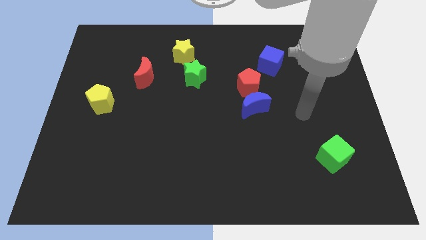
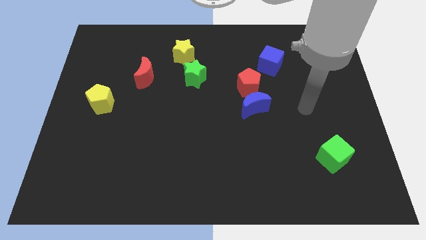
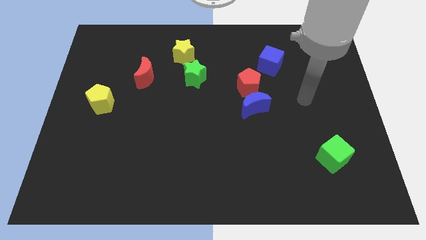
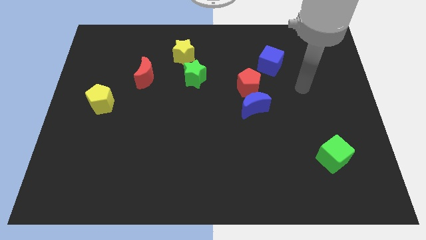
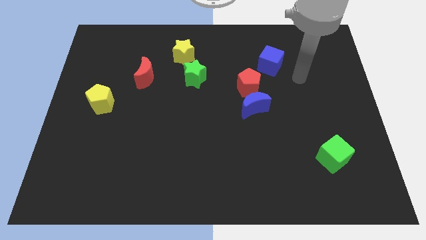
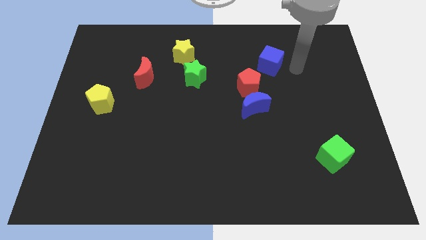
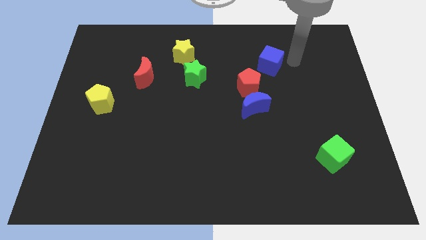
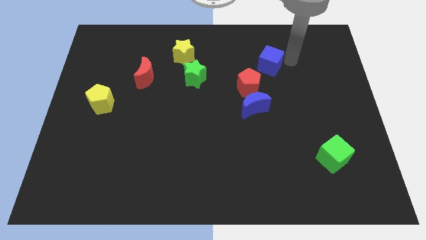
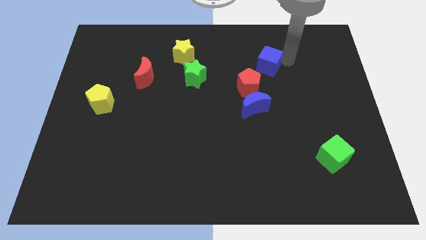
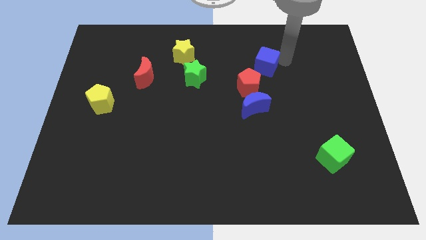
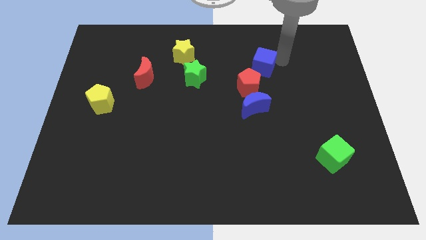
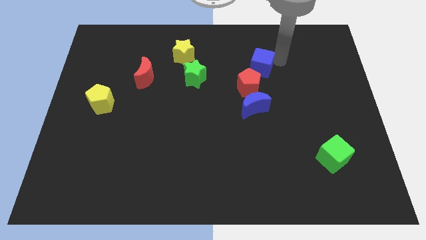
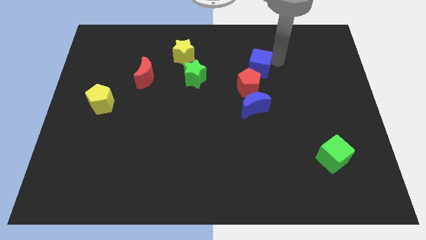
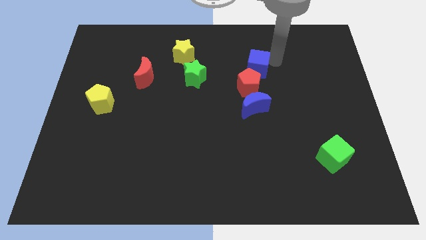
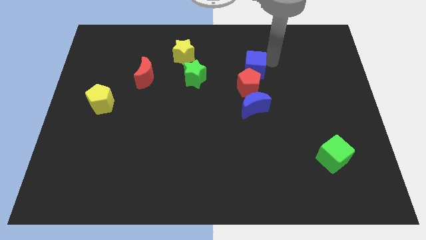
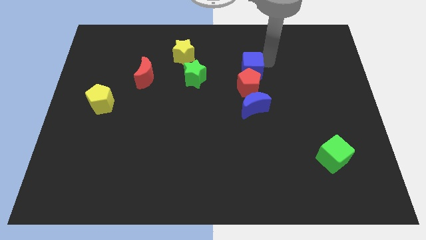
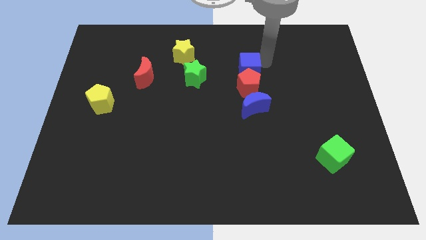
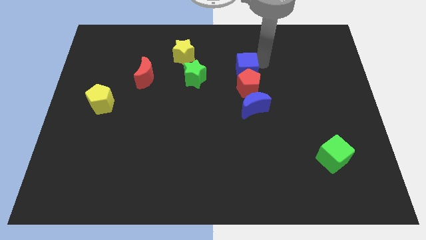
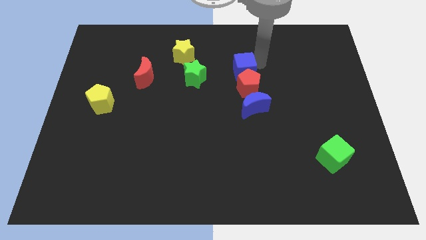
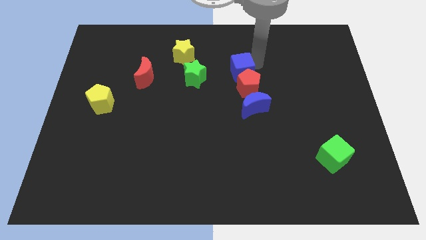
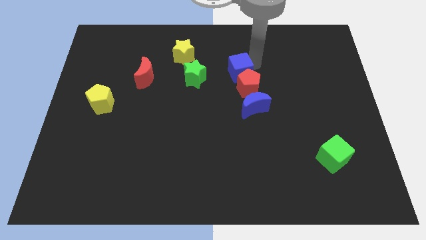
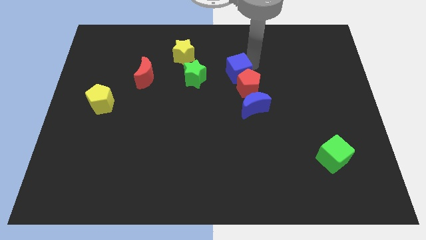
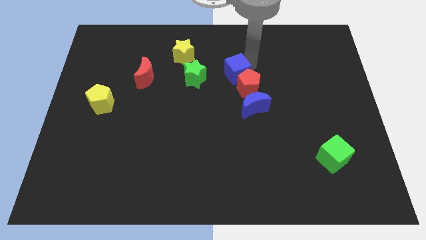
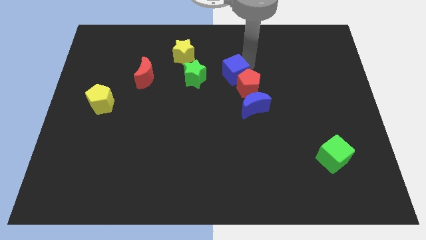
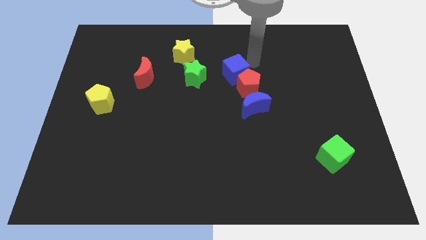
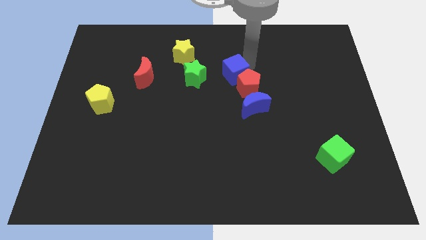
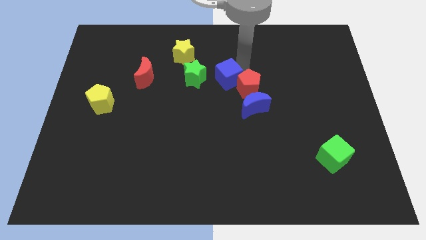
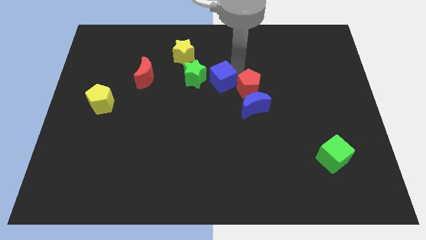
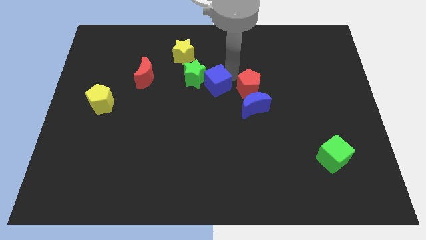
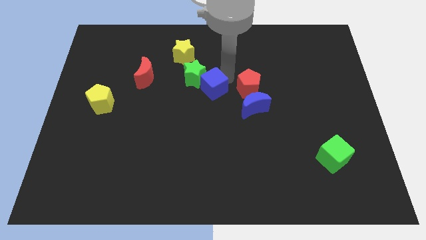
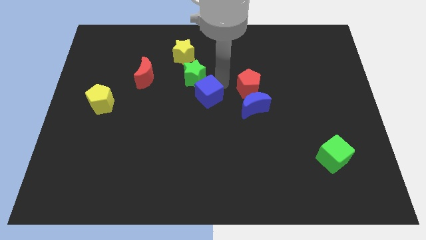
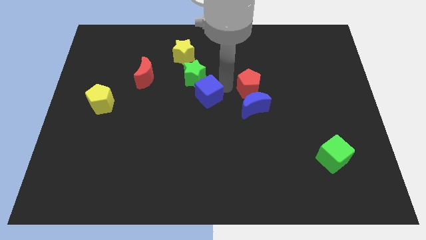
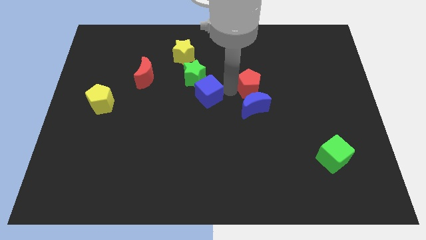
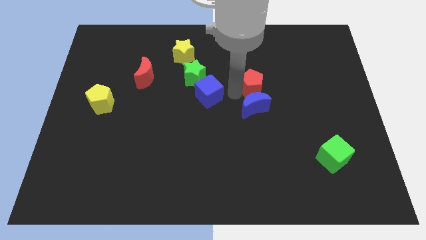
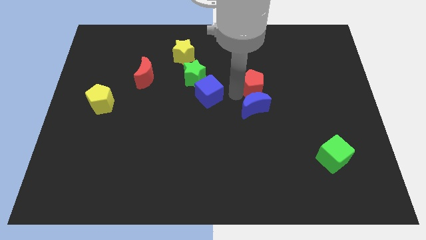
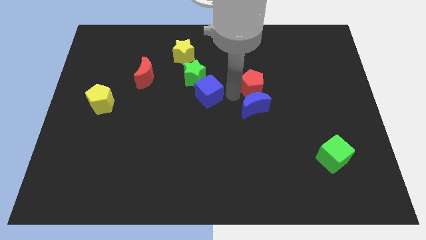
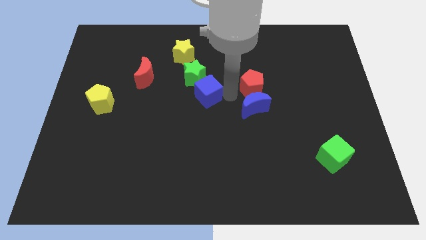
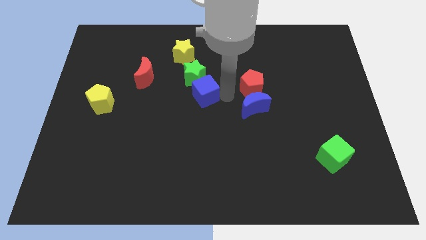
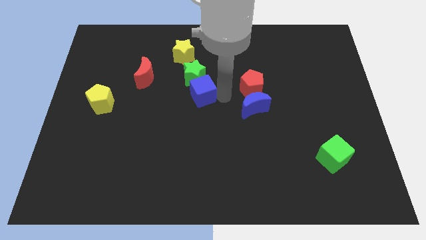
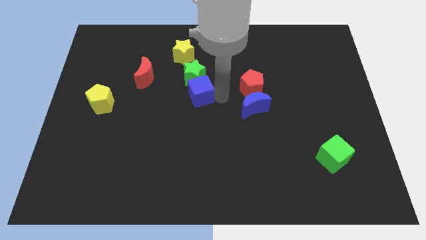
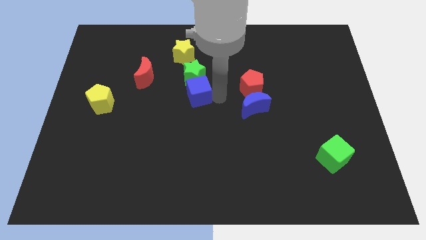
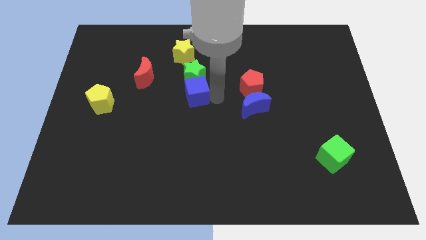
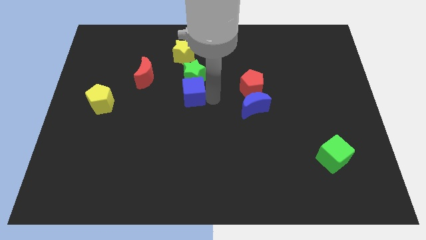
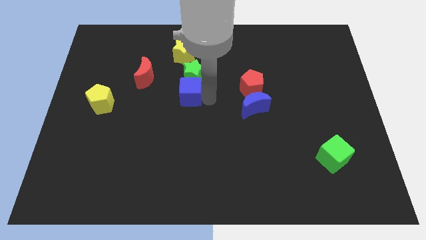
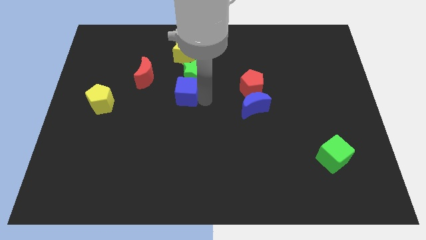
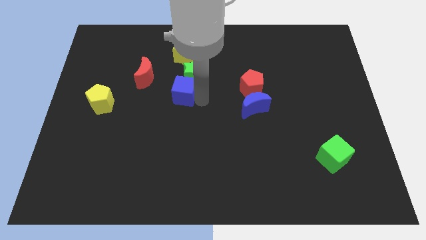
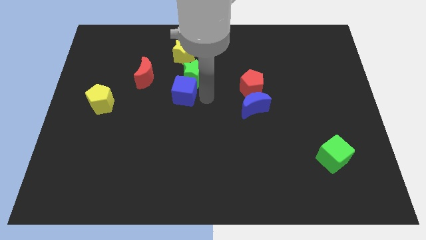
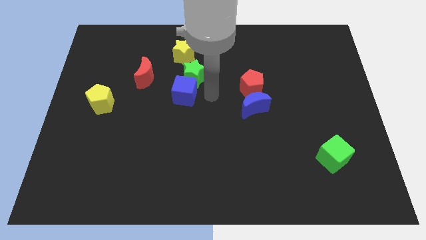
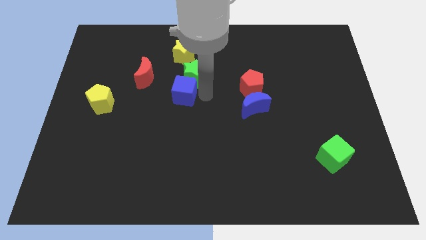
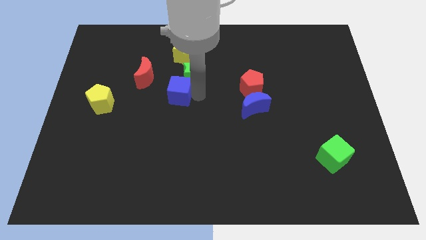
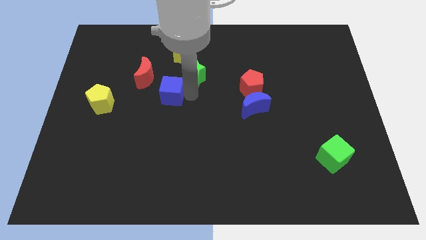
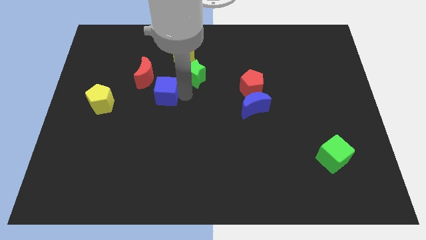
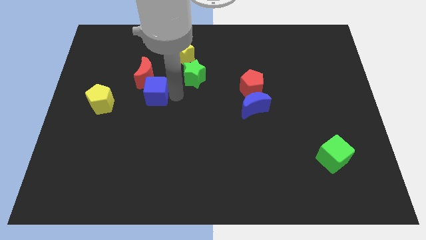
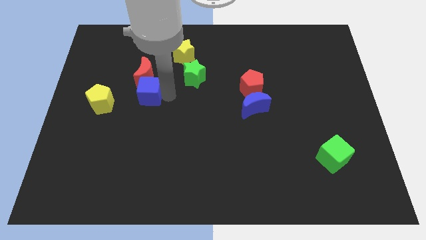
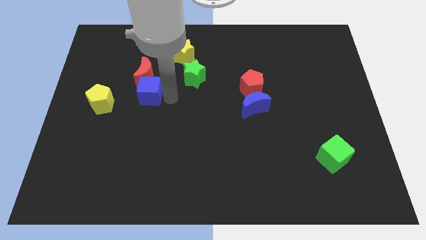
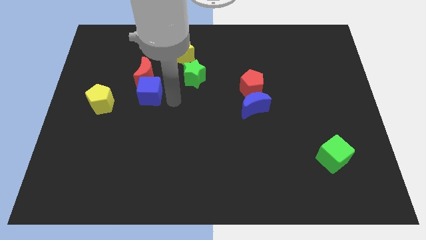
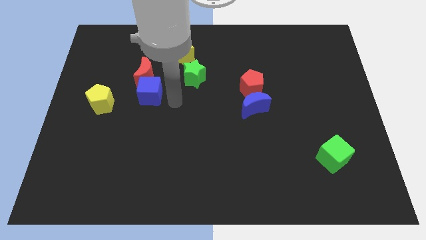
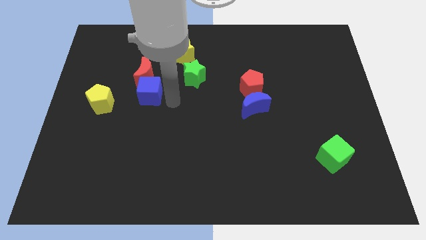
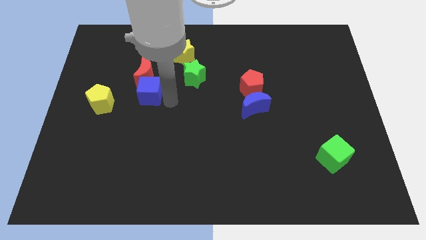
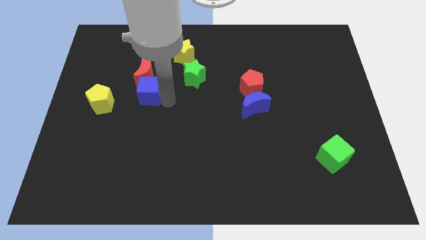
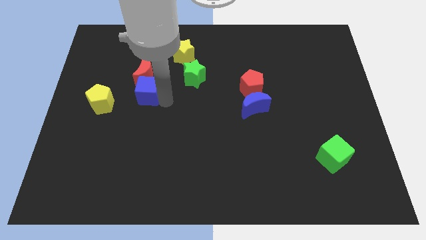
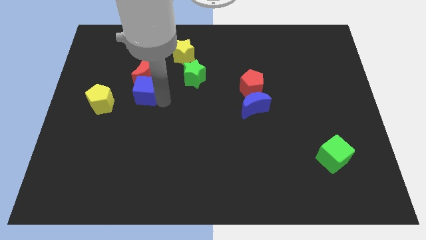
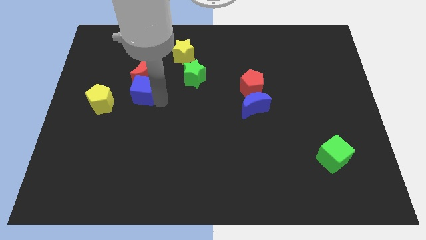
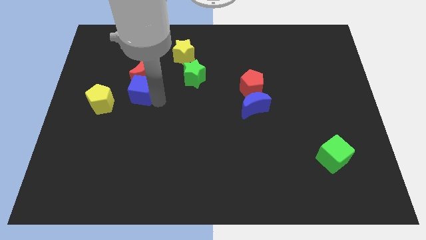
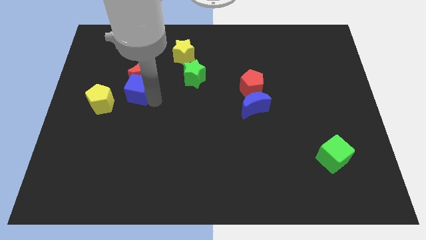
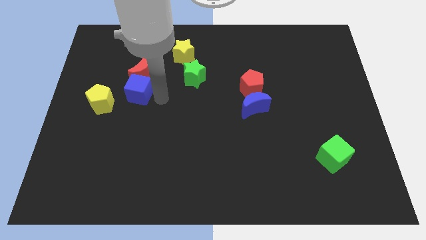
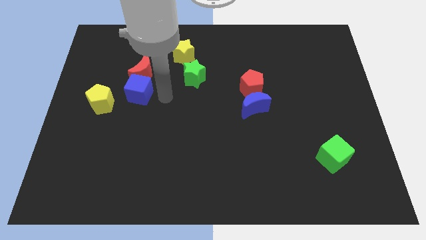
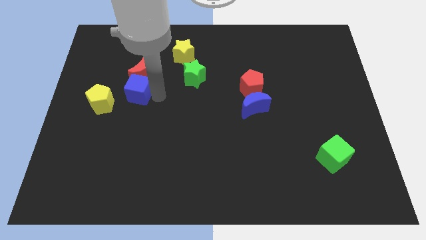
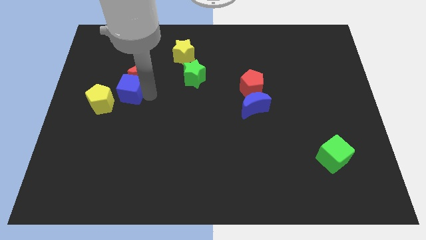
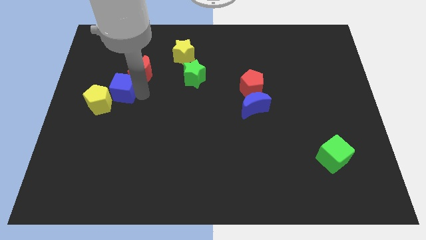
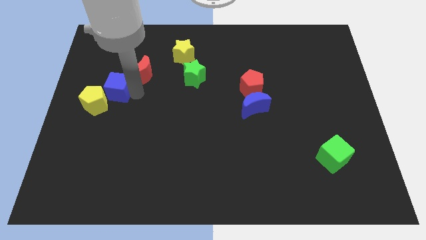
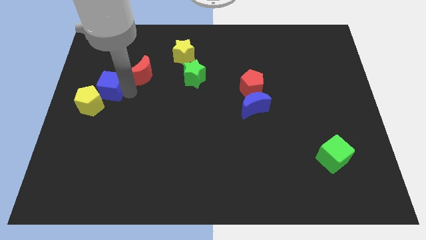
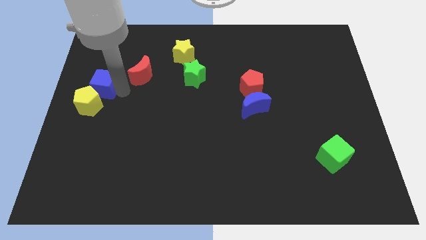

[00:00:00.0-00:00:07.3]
move the blue cube to the center left
